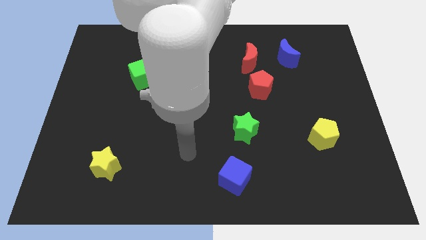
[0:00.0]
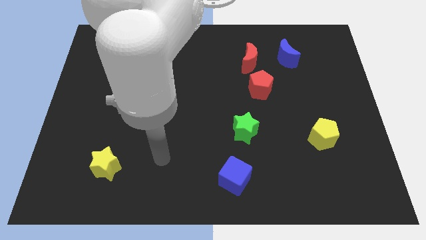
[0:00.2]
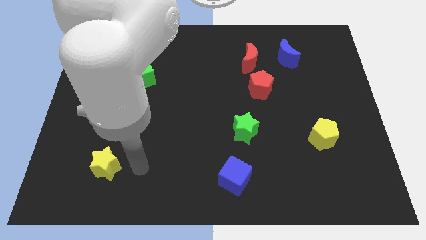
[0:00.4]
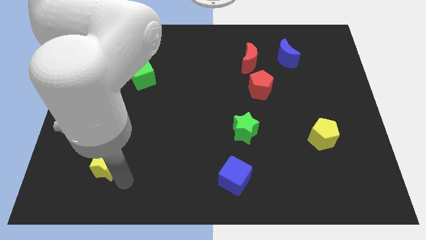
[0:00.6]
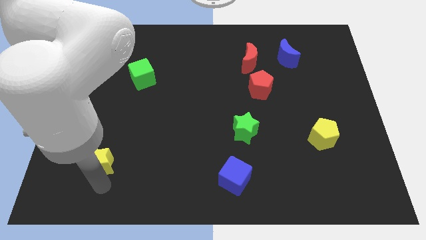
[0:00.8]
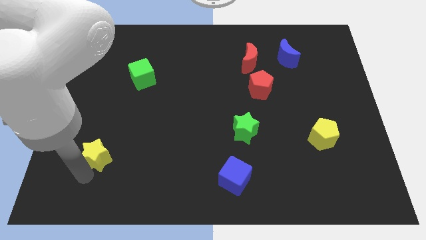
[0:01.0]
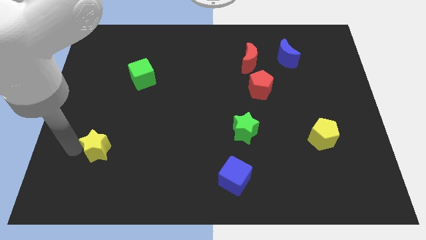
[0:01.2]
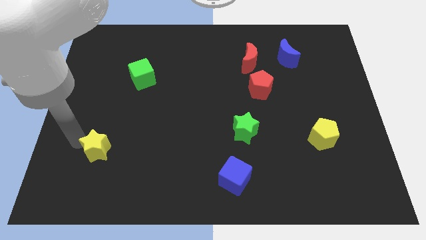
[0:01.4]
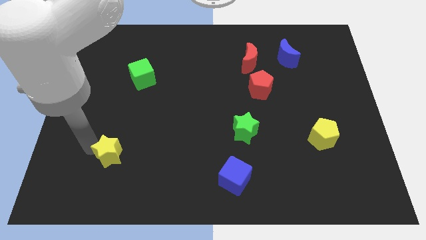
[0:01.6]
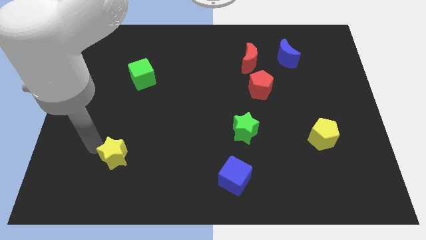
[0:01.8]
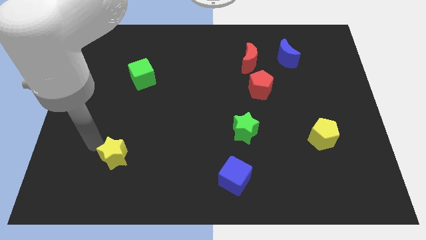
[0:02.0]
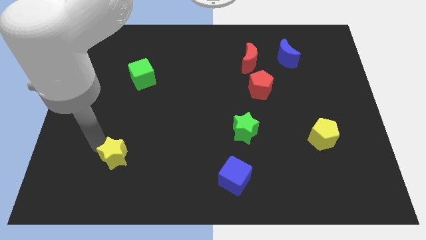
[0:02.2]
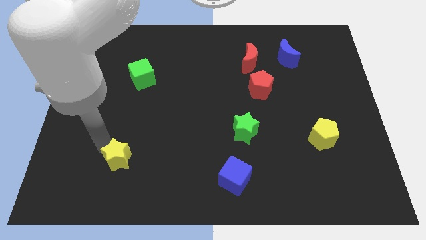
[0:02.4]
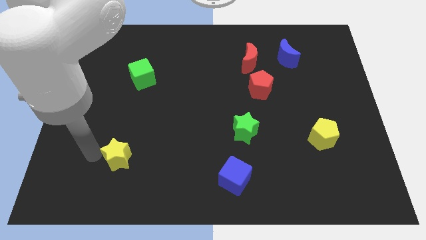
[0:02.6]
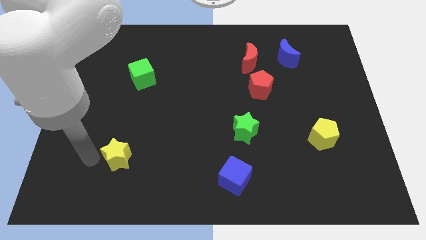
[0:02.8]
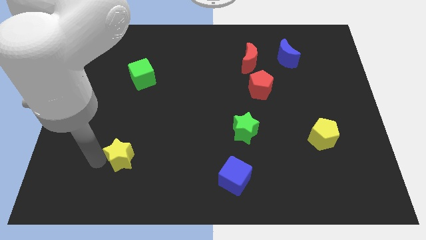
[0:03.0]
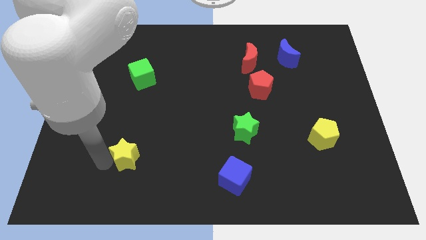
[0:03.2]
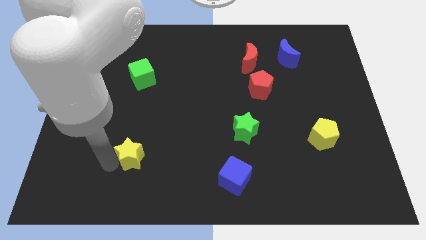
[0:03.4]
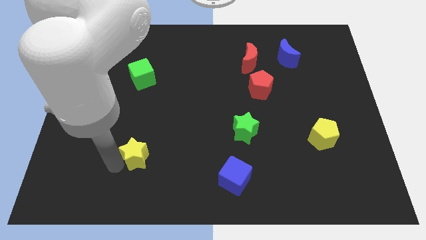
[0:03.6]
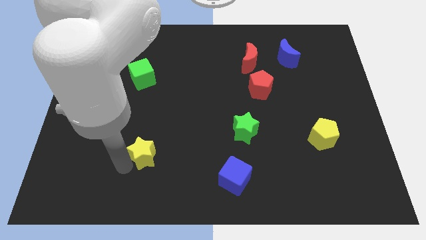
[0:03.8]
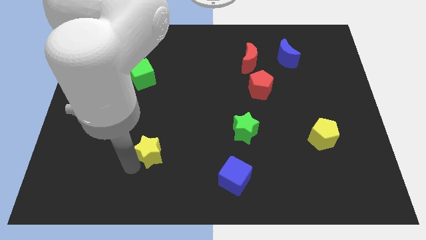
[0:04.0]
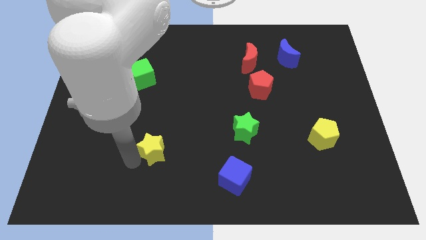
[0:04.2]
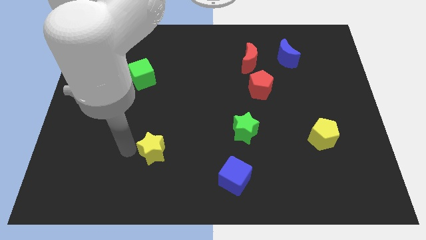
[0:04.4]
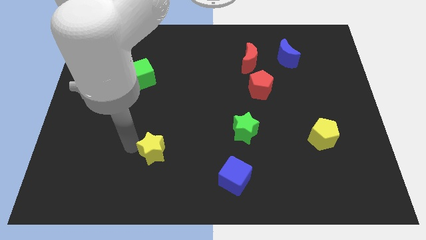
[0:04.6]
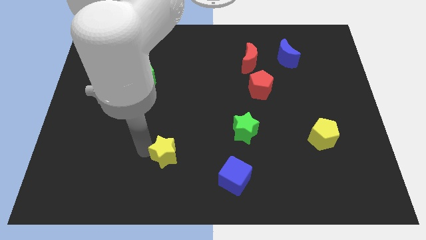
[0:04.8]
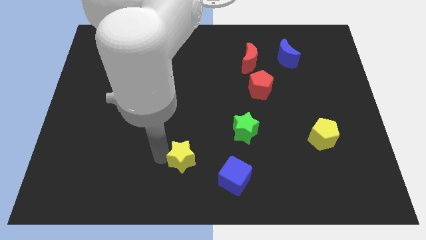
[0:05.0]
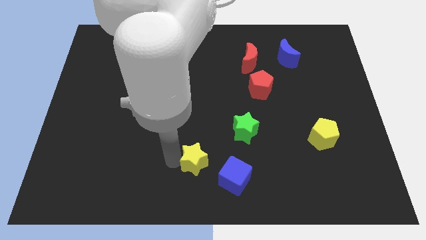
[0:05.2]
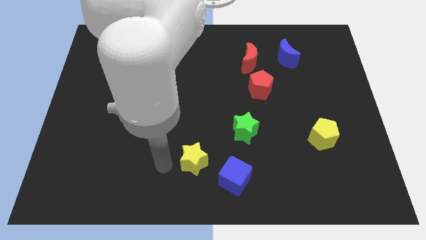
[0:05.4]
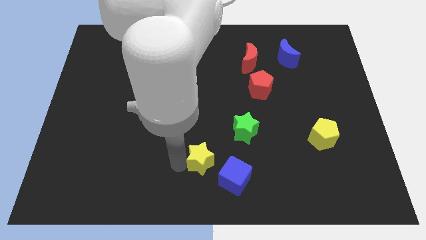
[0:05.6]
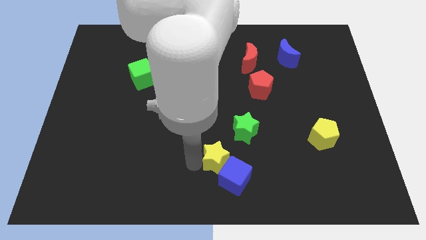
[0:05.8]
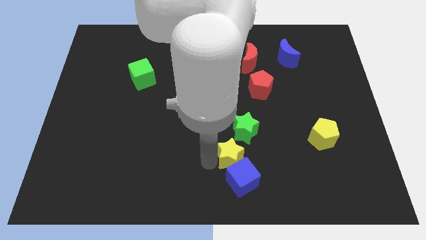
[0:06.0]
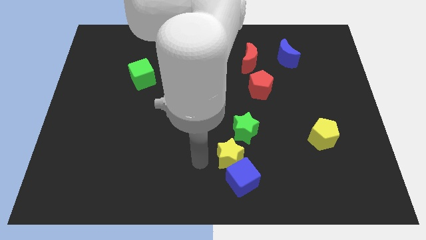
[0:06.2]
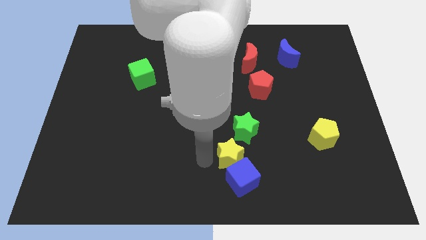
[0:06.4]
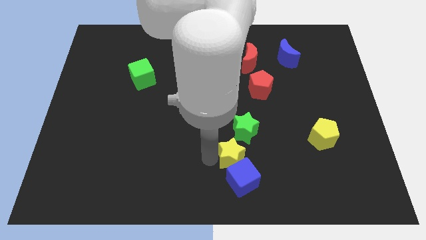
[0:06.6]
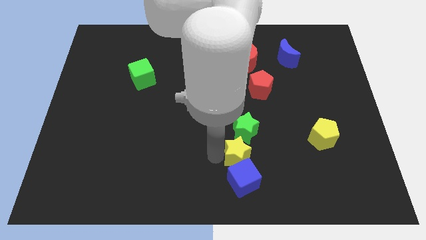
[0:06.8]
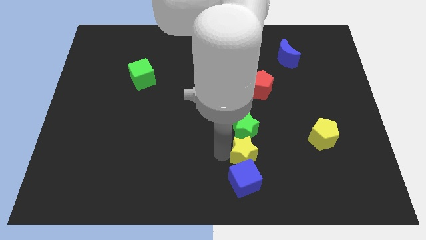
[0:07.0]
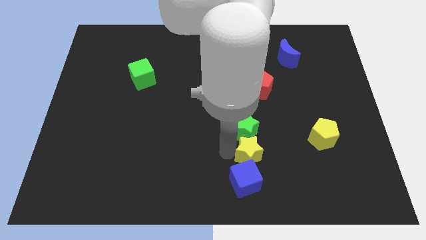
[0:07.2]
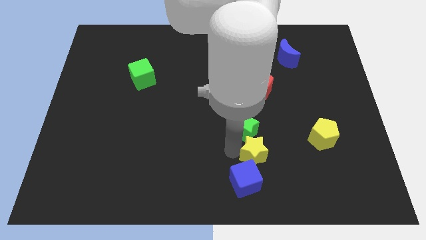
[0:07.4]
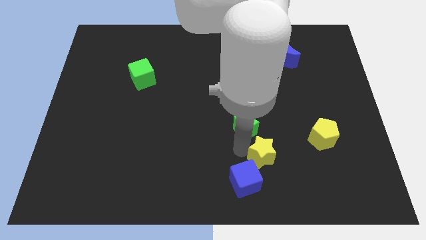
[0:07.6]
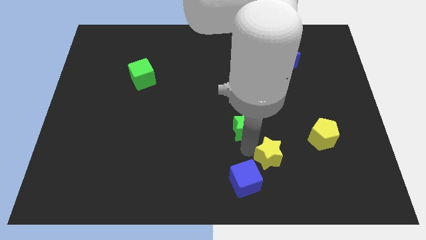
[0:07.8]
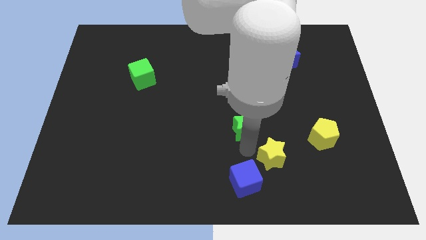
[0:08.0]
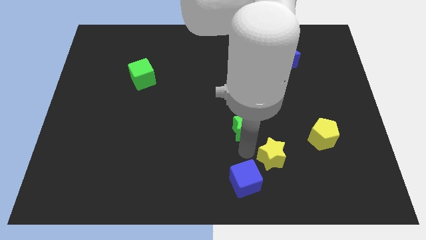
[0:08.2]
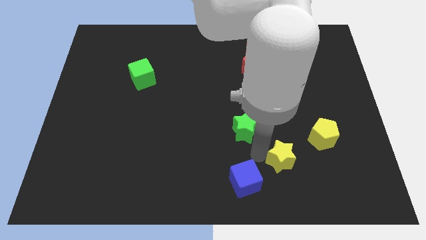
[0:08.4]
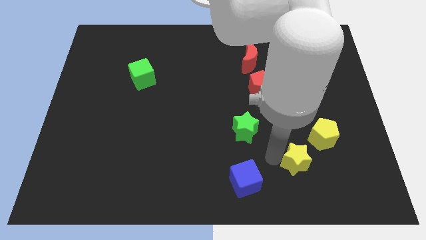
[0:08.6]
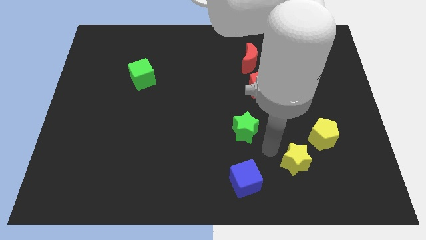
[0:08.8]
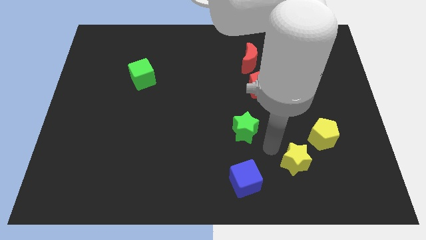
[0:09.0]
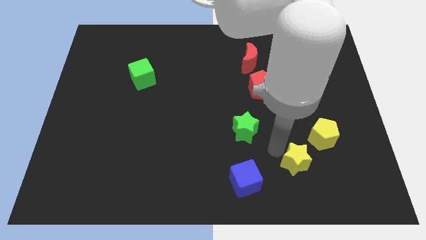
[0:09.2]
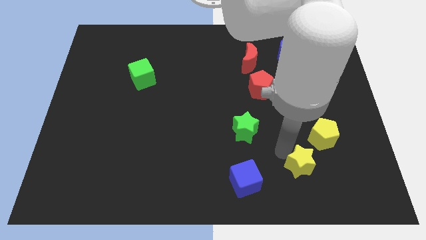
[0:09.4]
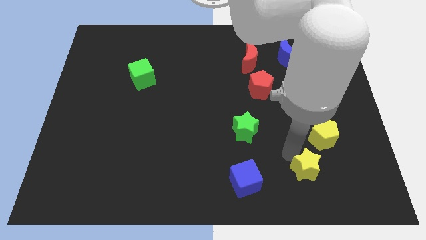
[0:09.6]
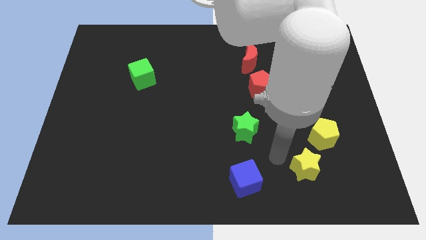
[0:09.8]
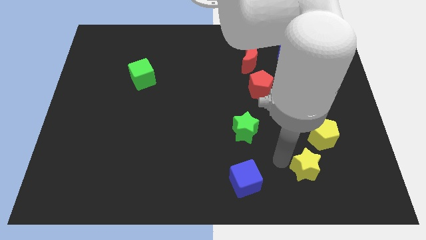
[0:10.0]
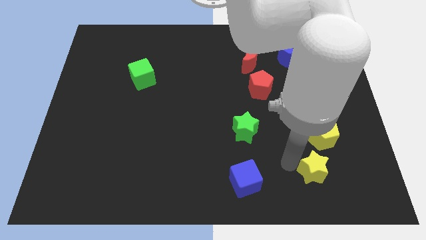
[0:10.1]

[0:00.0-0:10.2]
put the yellow star to the bottom side of the yellow pentagon

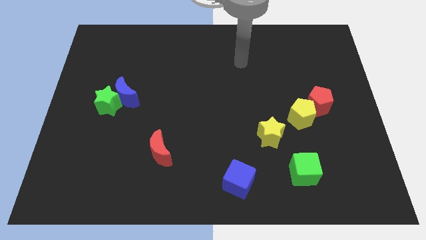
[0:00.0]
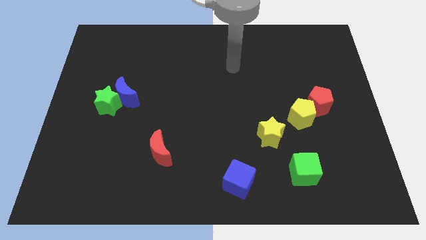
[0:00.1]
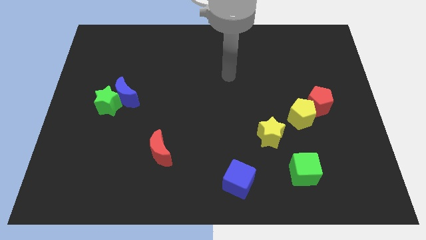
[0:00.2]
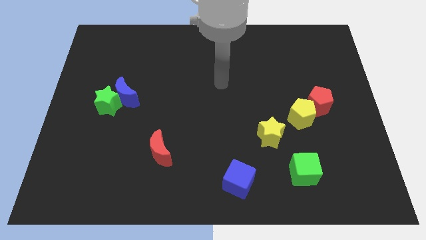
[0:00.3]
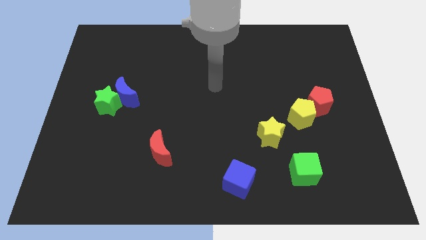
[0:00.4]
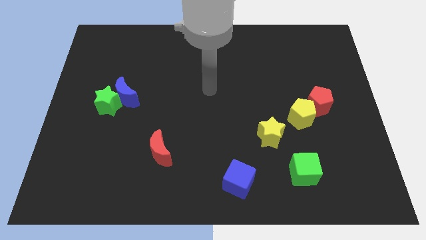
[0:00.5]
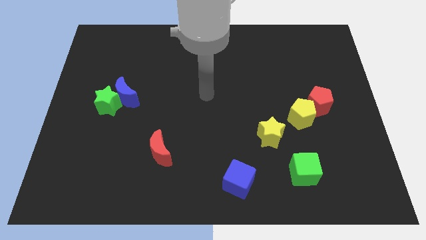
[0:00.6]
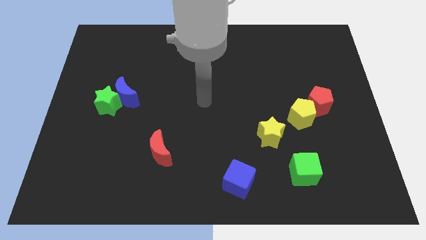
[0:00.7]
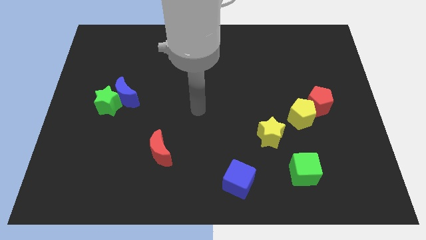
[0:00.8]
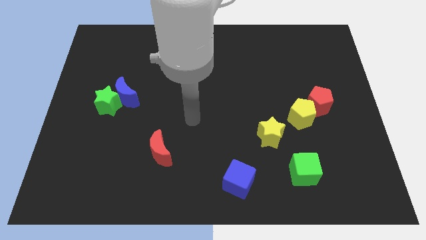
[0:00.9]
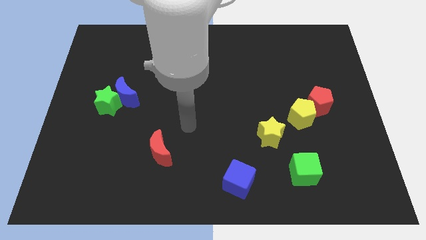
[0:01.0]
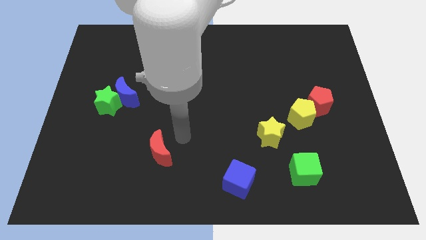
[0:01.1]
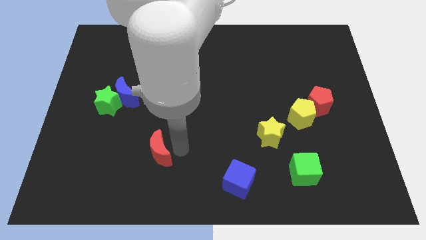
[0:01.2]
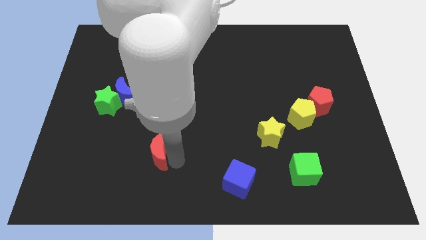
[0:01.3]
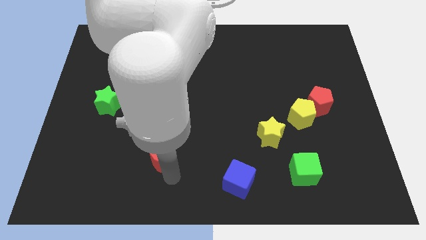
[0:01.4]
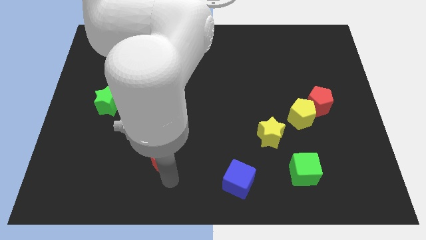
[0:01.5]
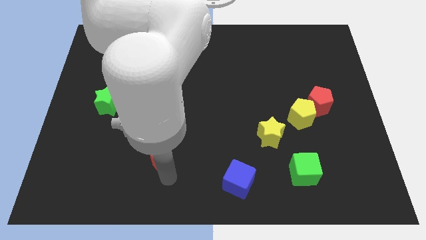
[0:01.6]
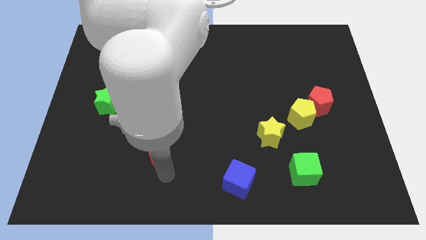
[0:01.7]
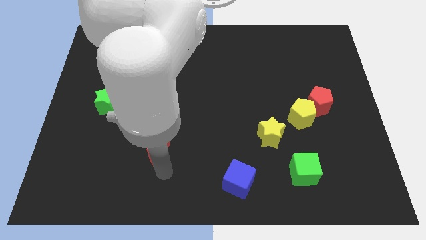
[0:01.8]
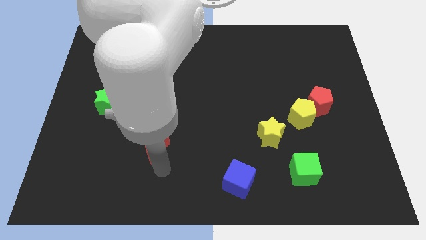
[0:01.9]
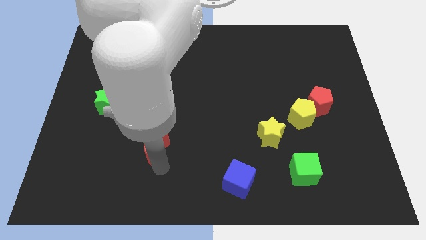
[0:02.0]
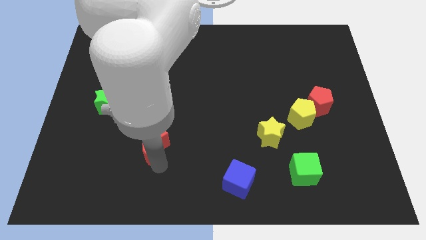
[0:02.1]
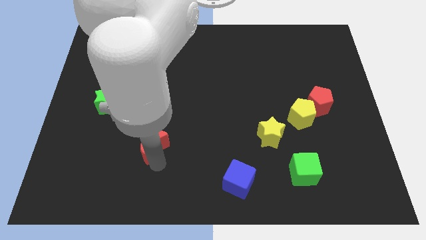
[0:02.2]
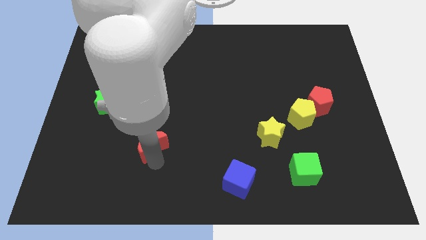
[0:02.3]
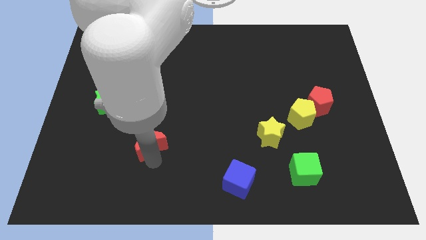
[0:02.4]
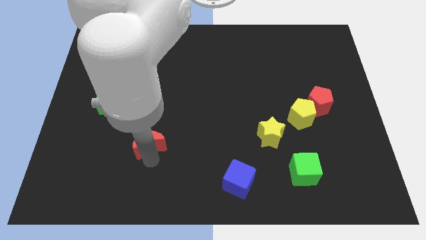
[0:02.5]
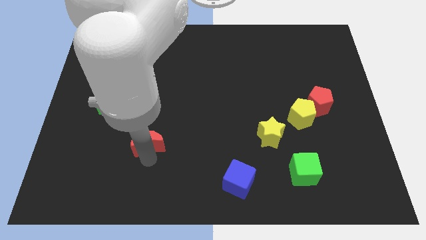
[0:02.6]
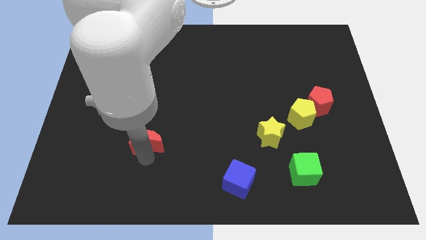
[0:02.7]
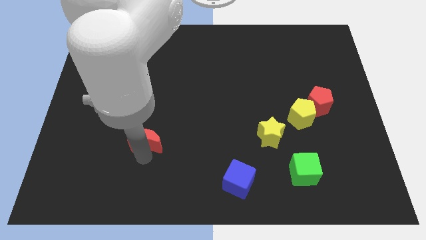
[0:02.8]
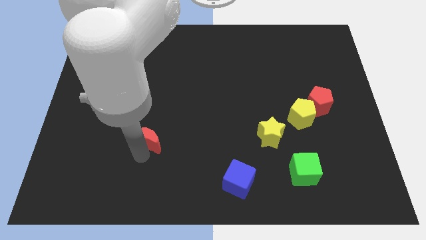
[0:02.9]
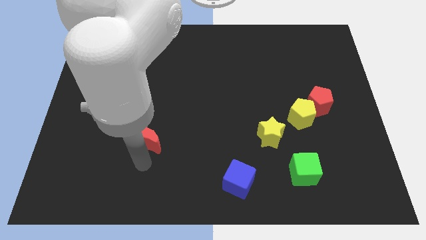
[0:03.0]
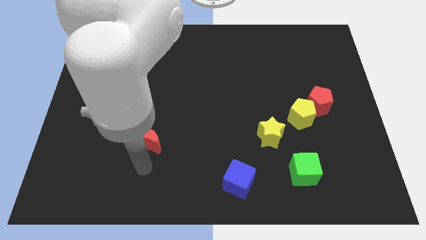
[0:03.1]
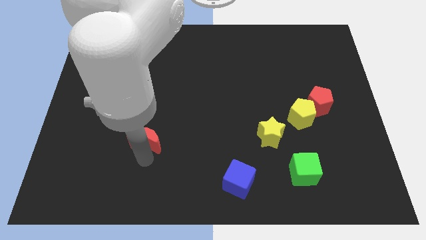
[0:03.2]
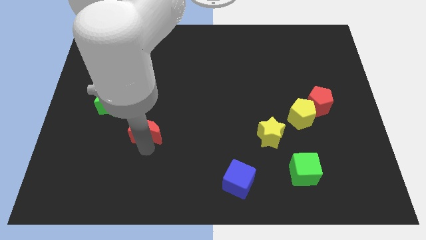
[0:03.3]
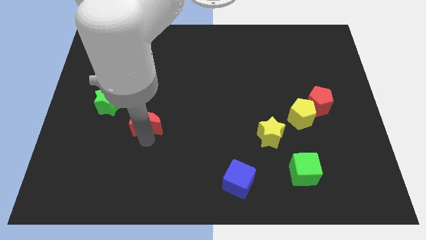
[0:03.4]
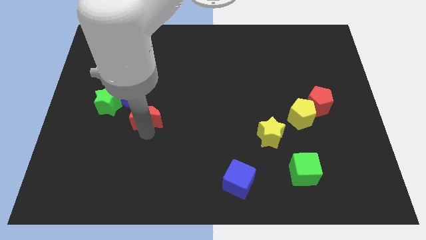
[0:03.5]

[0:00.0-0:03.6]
push the red moon to the right side of the green star
